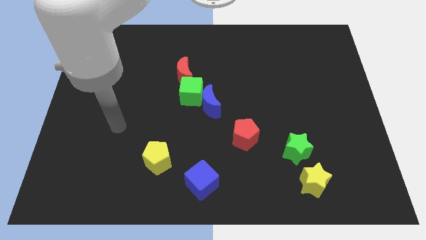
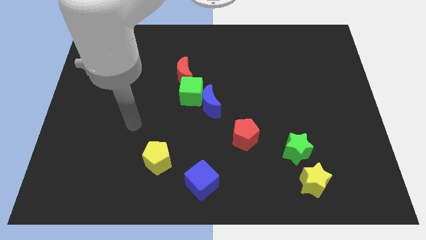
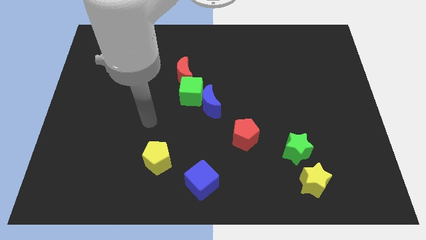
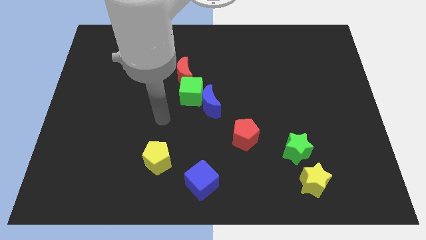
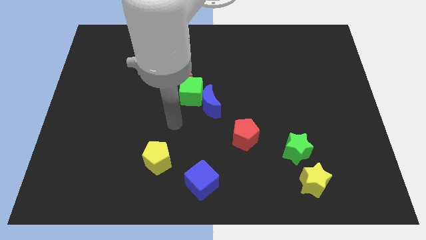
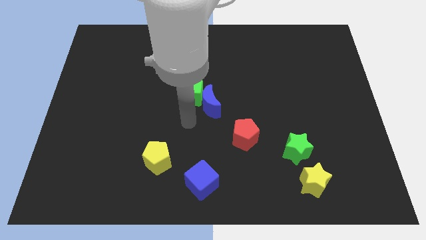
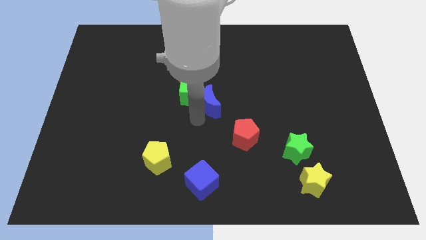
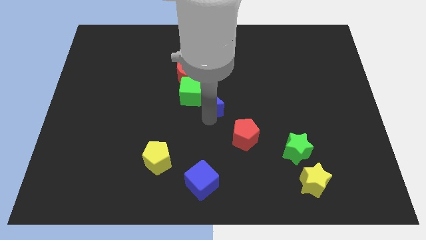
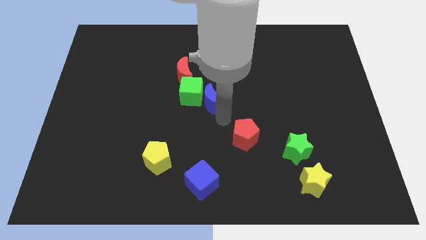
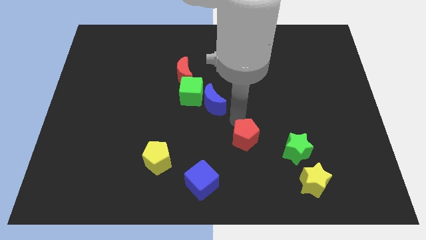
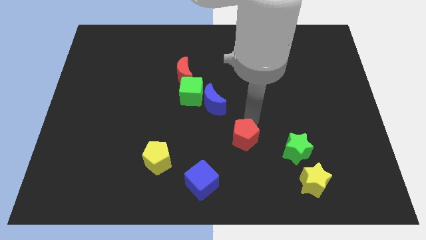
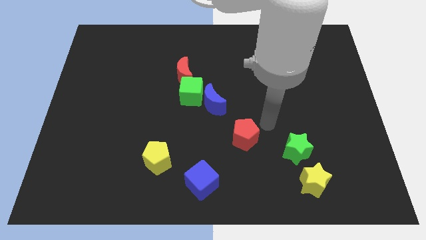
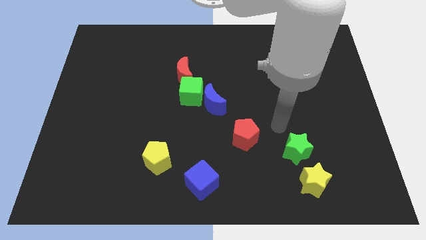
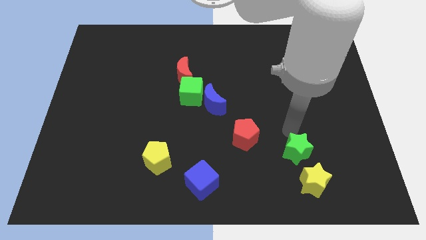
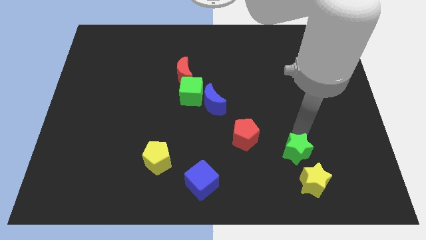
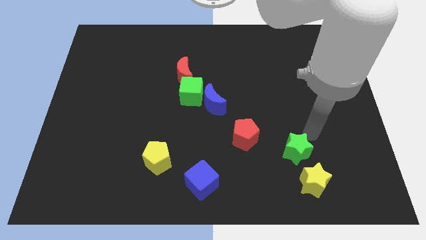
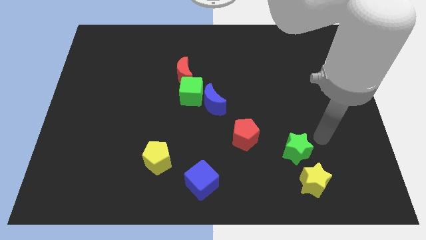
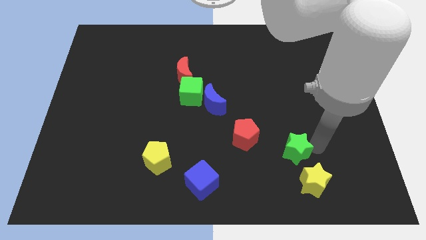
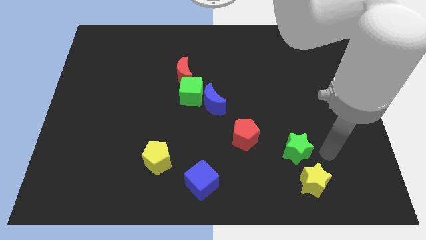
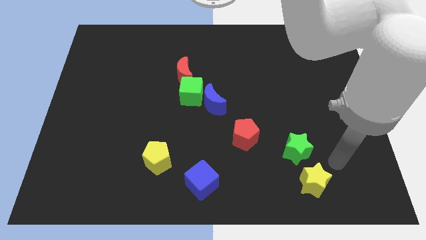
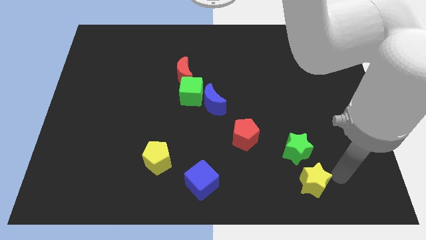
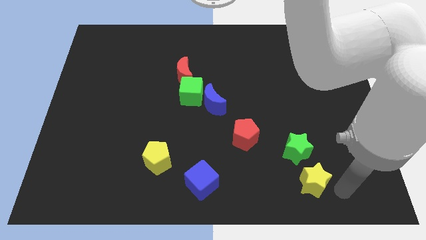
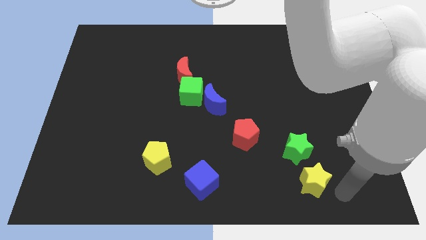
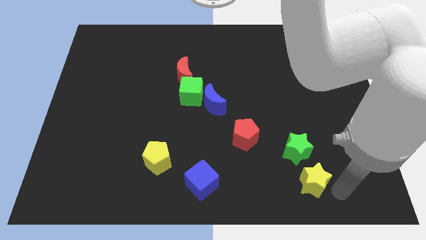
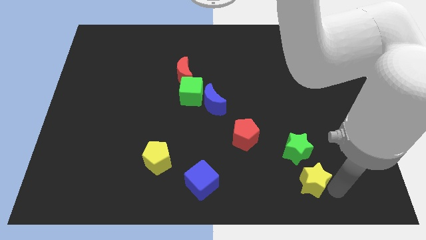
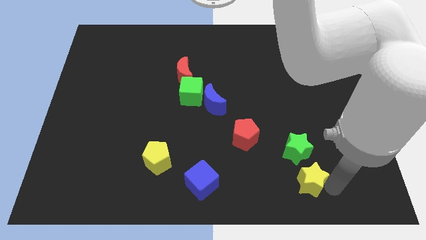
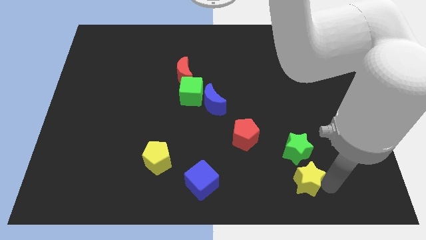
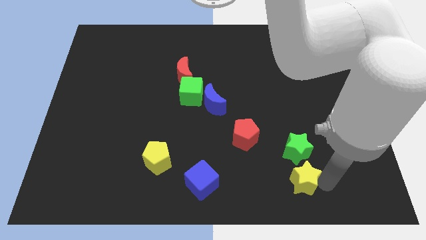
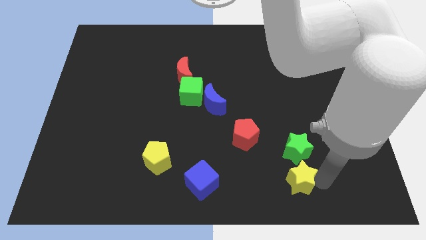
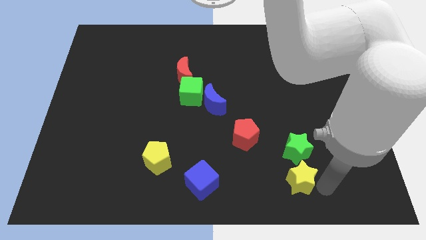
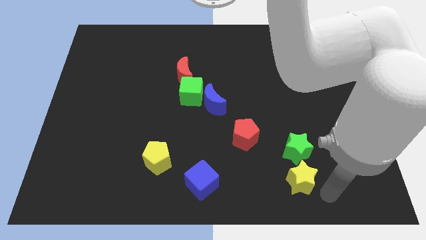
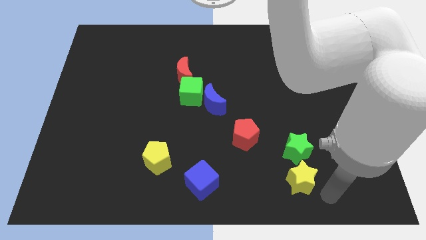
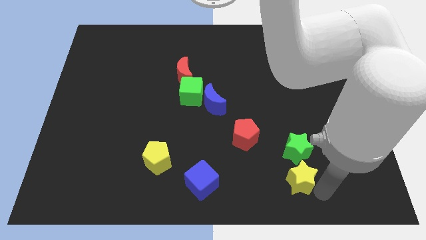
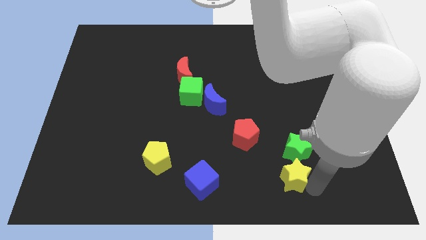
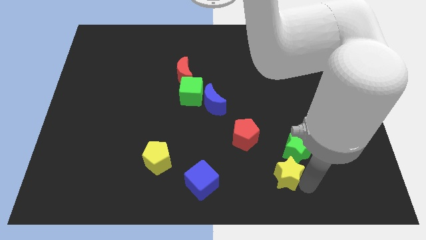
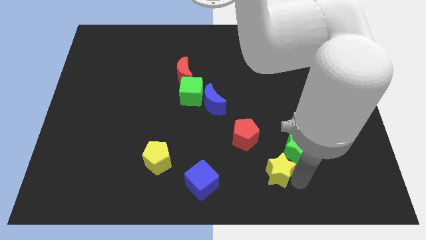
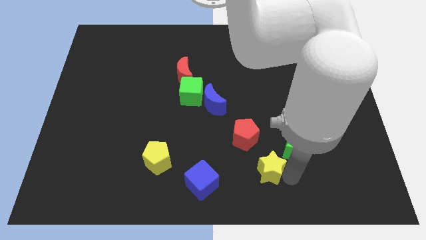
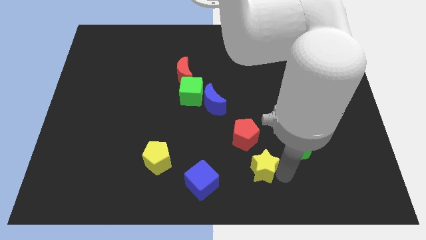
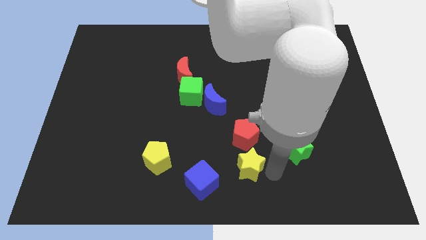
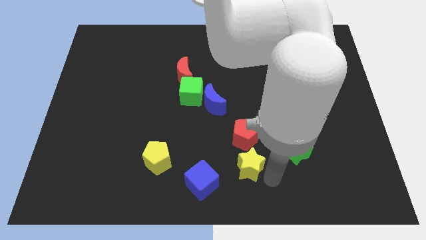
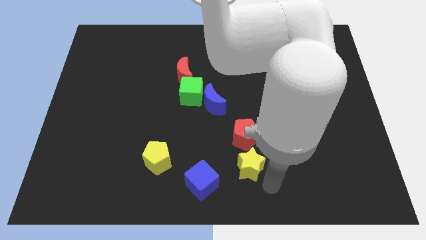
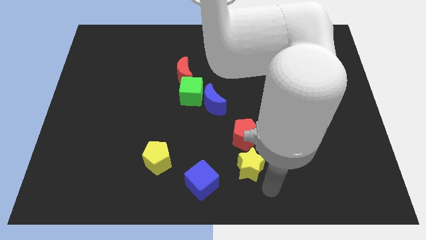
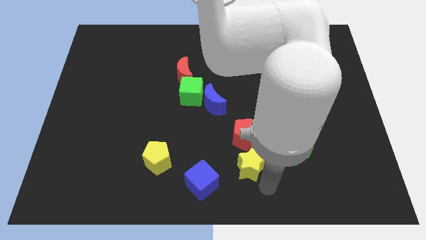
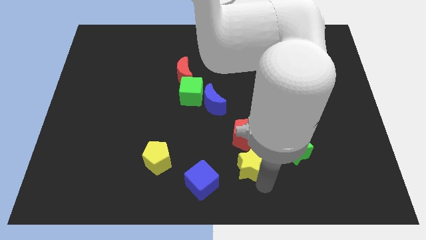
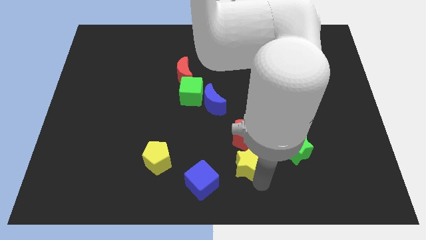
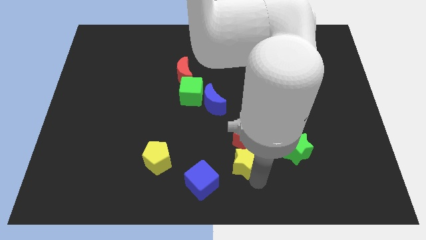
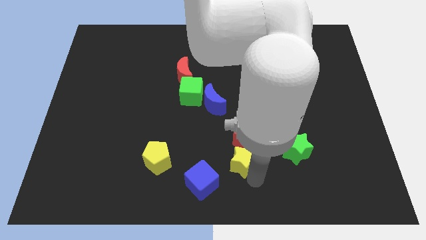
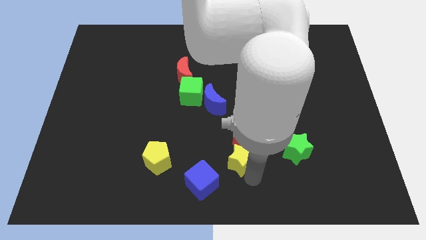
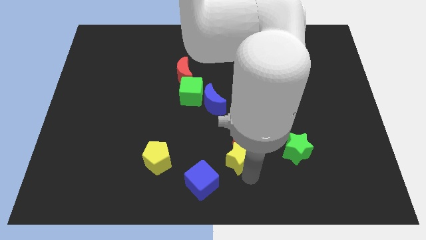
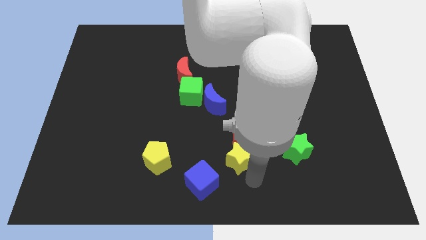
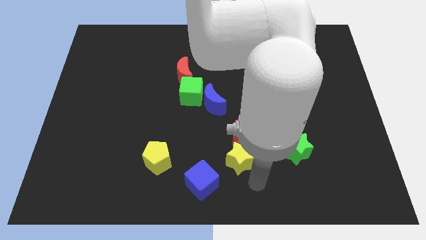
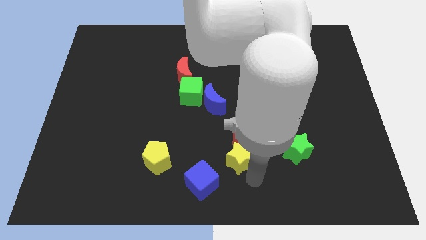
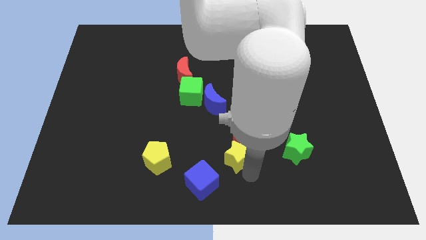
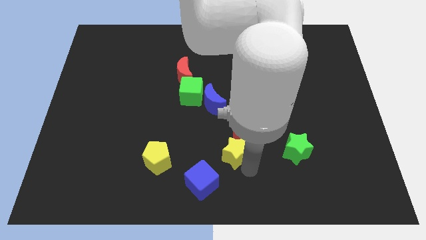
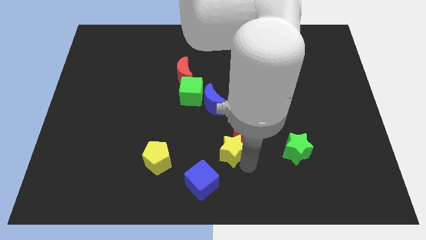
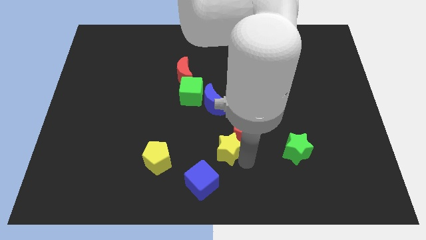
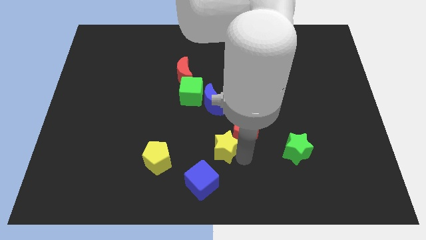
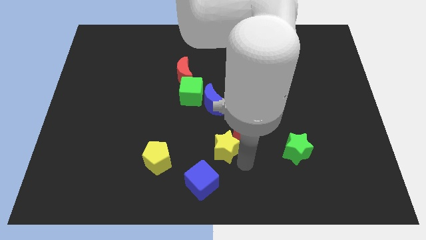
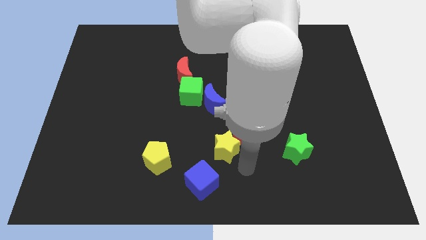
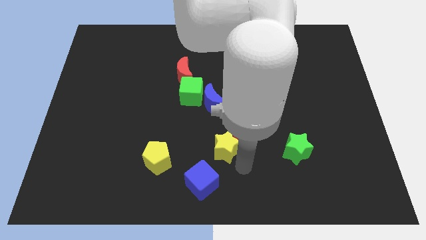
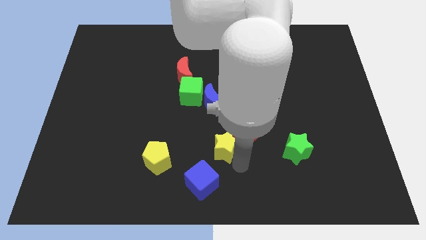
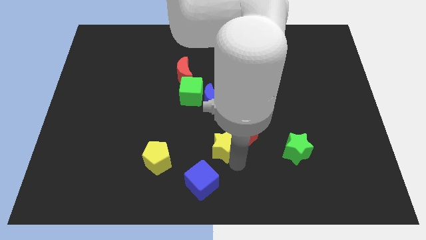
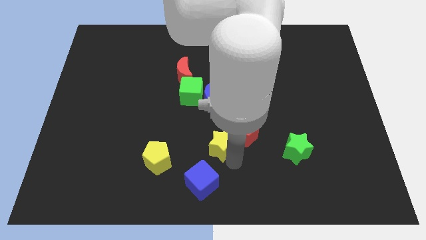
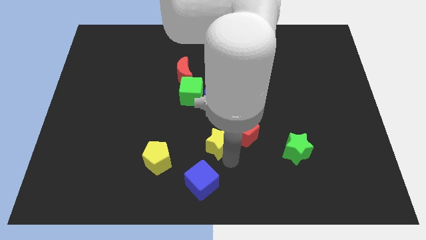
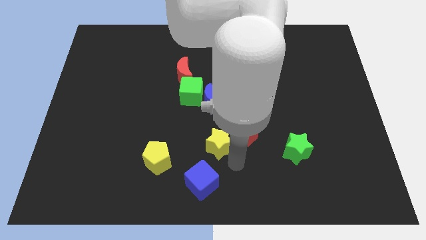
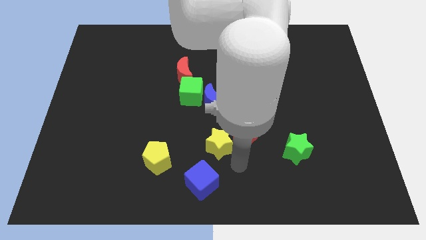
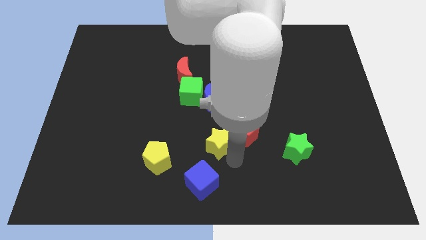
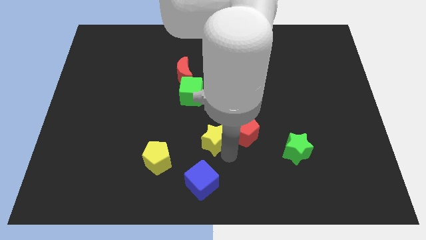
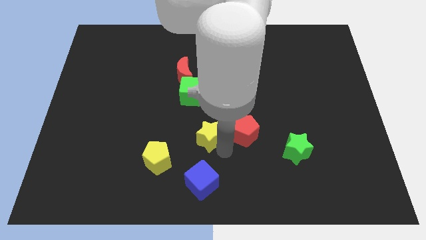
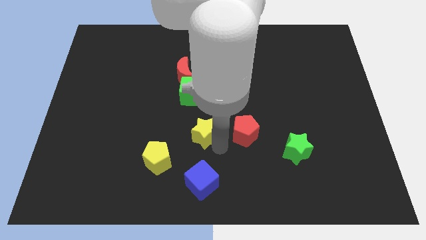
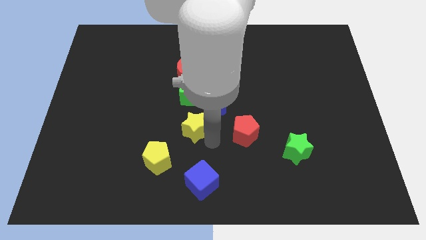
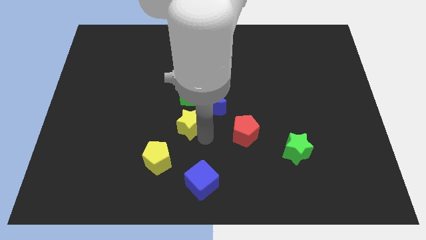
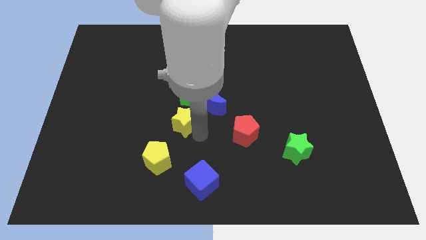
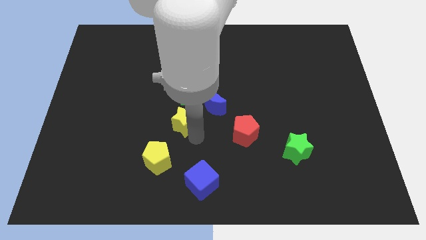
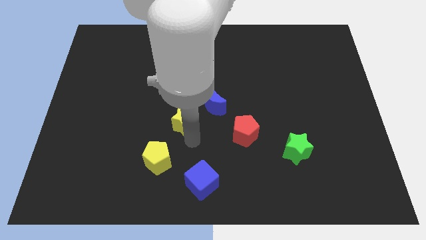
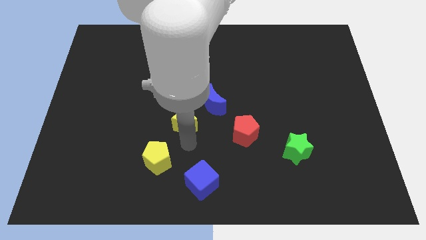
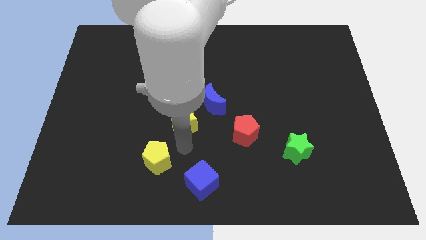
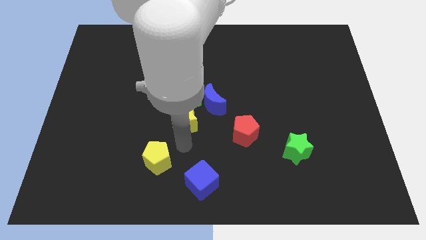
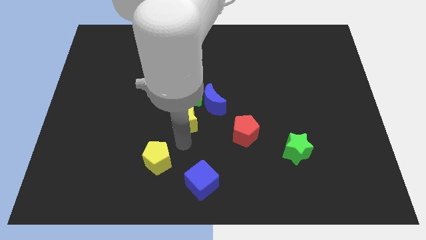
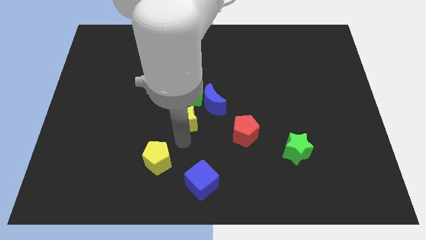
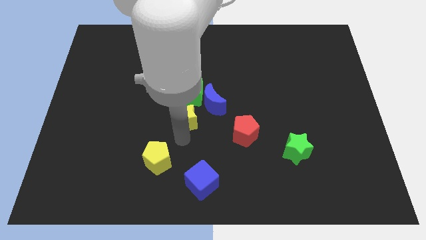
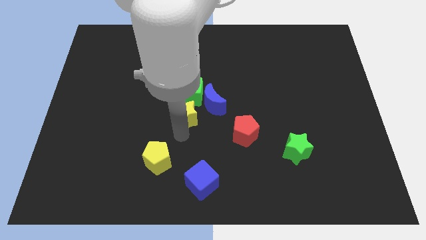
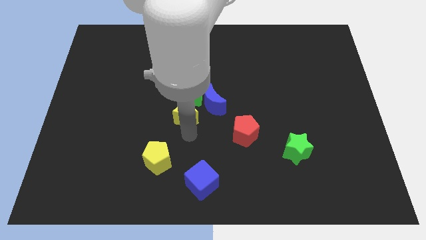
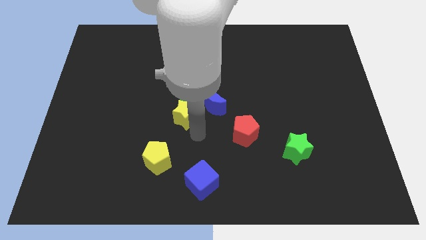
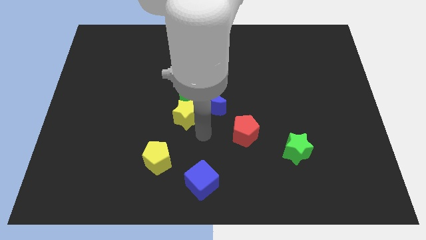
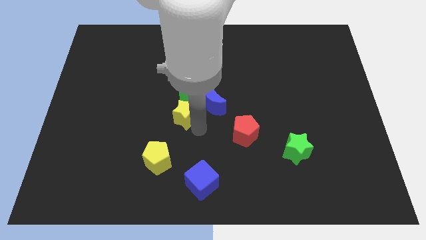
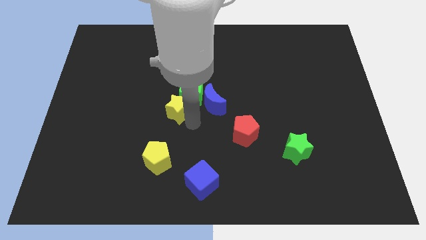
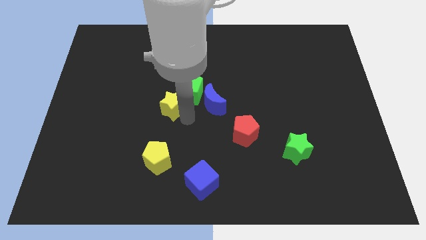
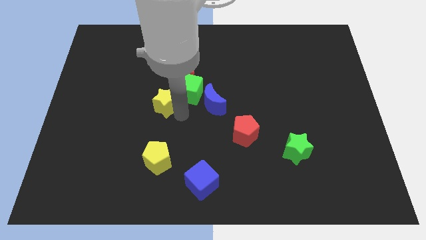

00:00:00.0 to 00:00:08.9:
push the yellow star diagonally down and to the left of the red moon
